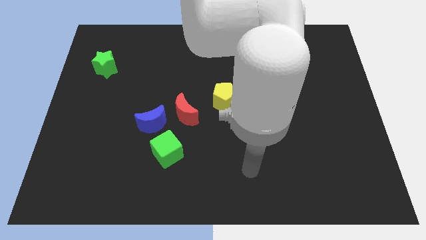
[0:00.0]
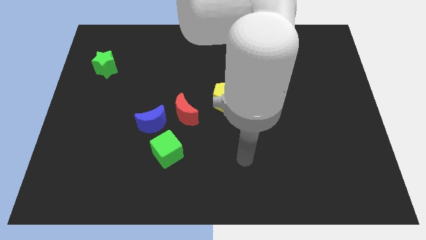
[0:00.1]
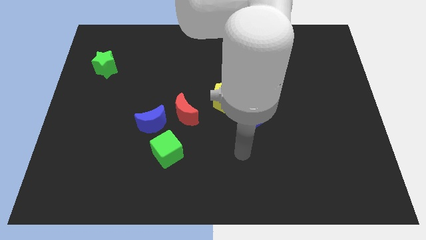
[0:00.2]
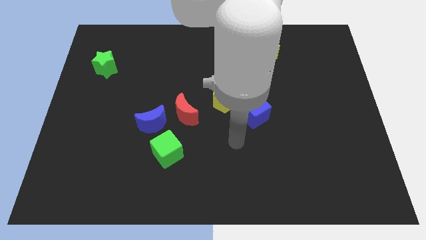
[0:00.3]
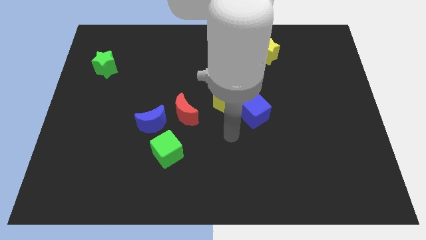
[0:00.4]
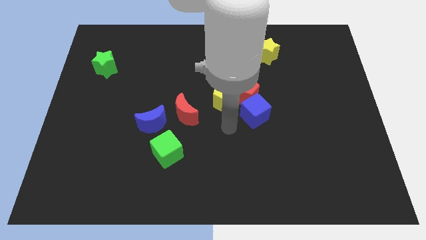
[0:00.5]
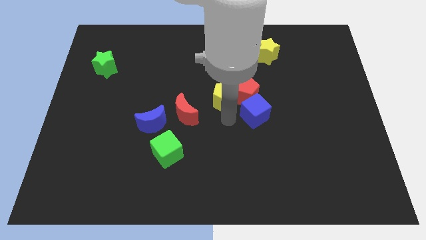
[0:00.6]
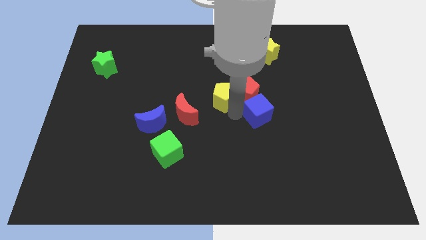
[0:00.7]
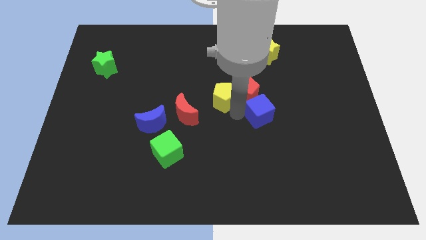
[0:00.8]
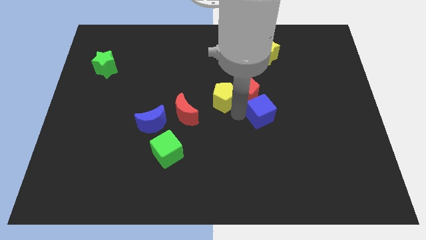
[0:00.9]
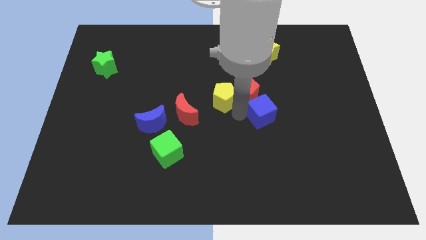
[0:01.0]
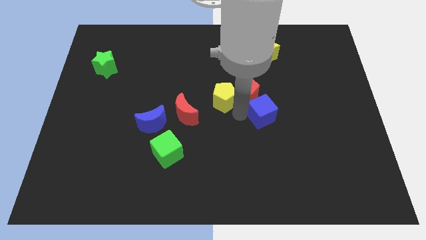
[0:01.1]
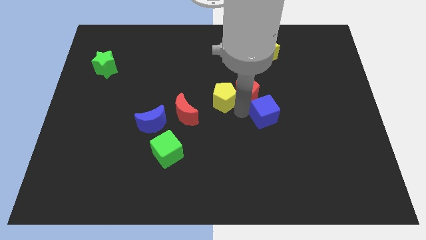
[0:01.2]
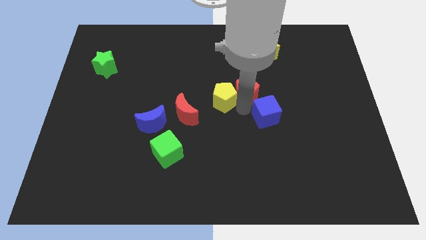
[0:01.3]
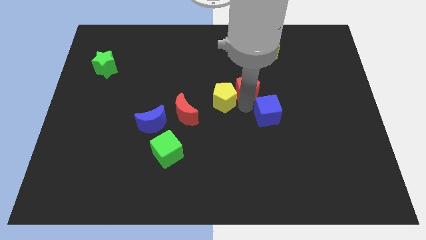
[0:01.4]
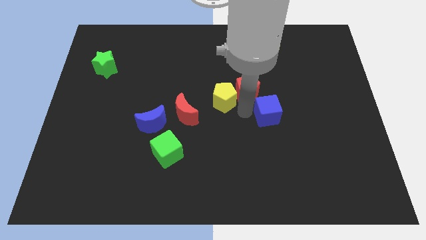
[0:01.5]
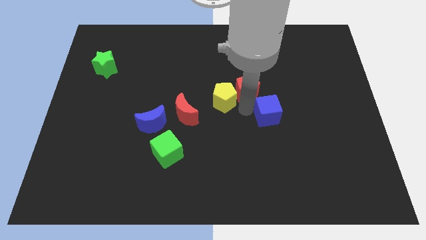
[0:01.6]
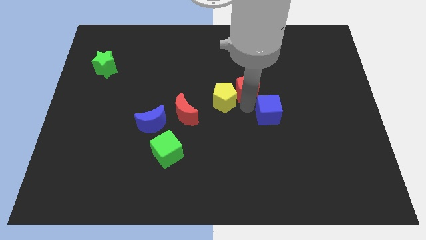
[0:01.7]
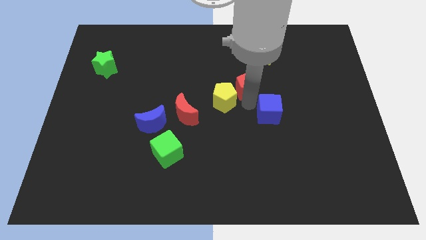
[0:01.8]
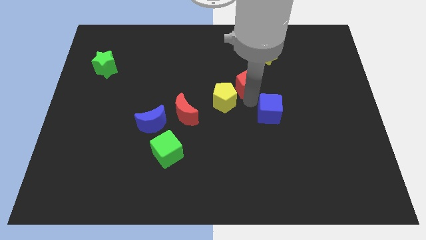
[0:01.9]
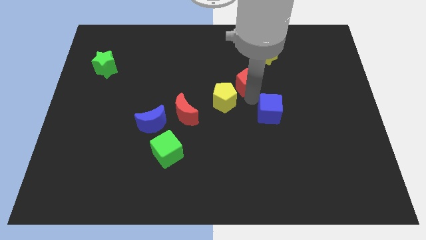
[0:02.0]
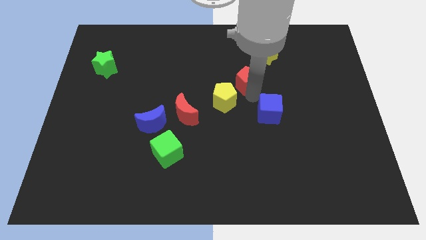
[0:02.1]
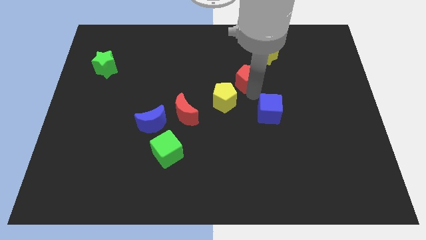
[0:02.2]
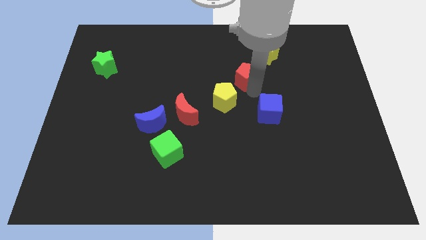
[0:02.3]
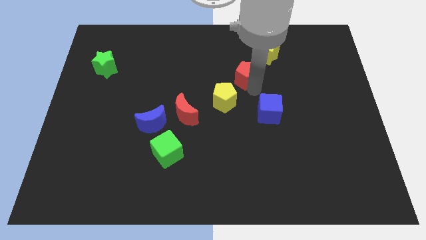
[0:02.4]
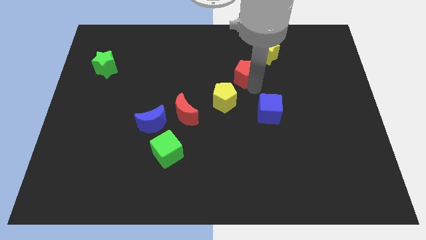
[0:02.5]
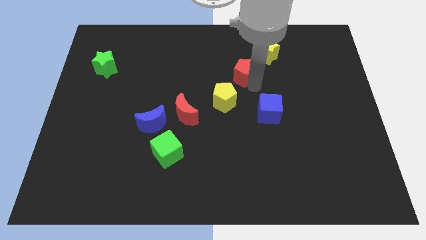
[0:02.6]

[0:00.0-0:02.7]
pull the red pentagon apart from the yellow pentagon and blue cube

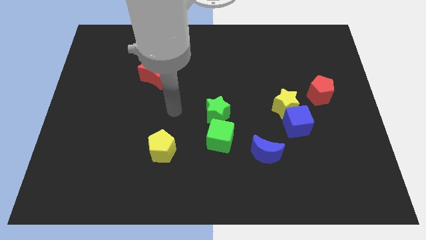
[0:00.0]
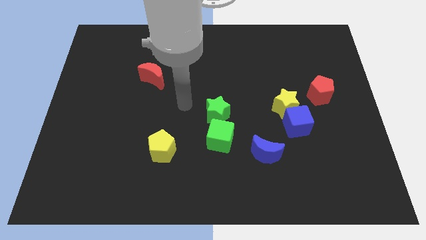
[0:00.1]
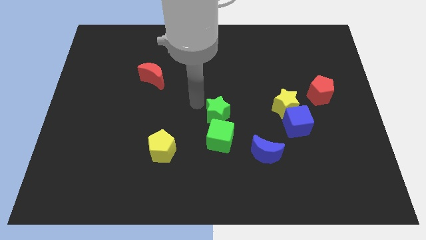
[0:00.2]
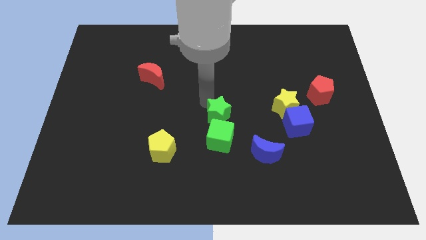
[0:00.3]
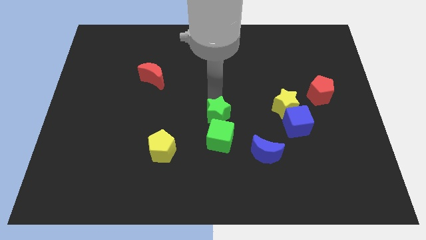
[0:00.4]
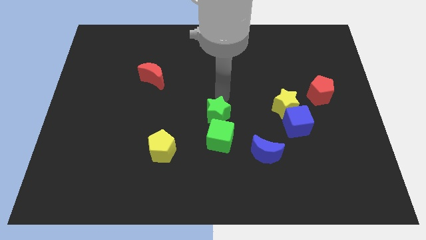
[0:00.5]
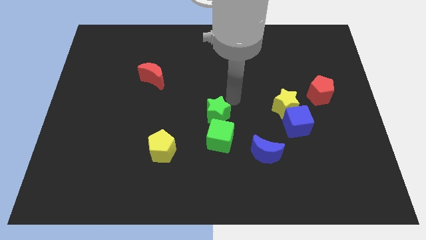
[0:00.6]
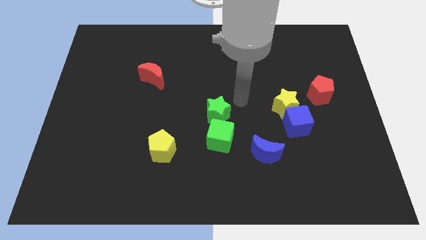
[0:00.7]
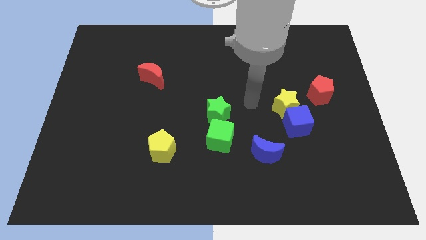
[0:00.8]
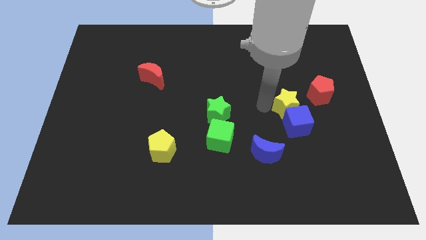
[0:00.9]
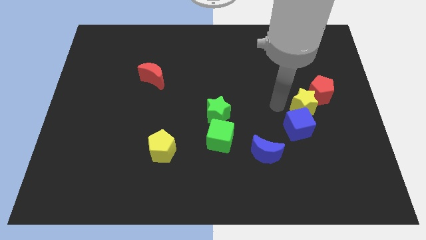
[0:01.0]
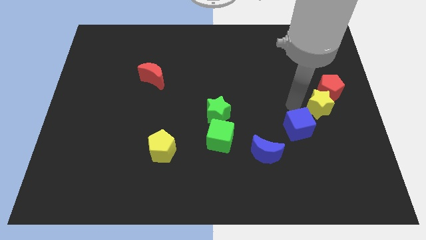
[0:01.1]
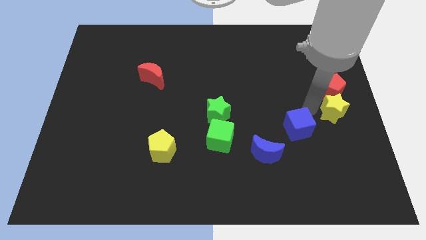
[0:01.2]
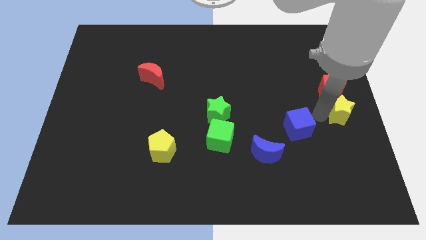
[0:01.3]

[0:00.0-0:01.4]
pull the blue cube apart from the yellow star

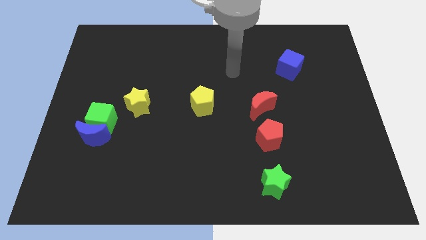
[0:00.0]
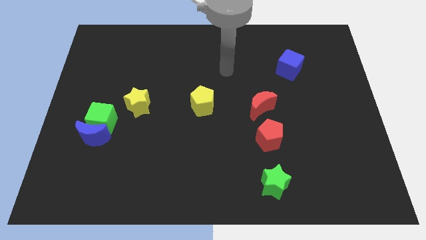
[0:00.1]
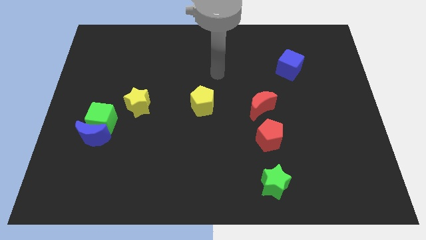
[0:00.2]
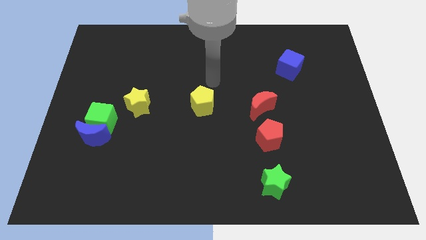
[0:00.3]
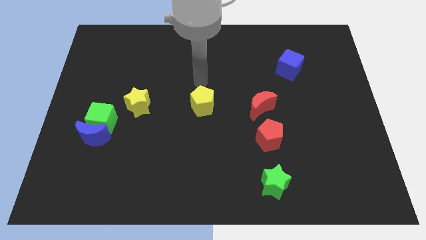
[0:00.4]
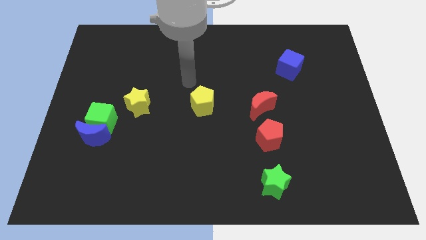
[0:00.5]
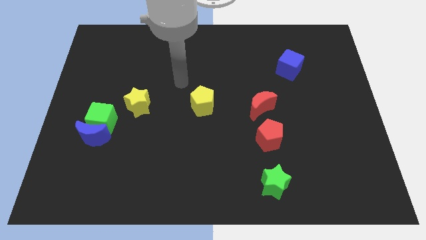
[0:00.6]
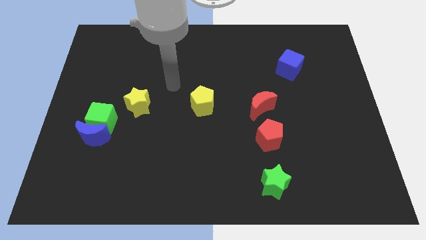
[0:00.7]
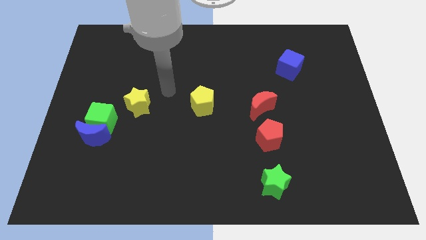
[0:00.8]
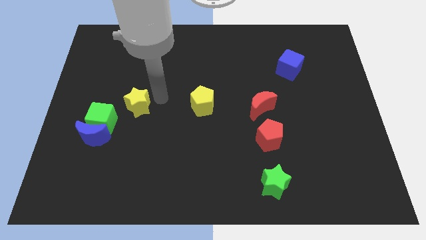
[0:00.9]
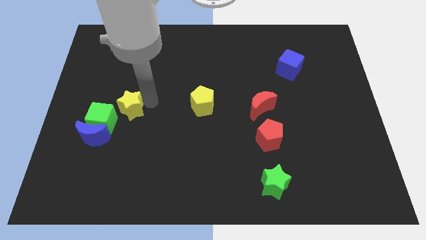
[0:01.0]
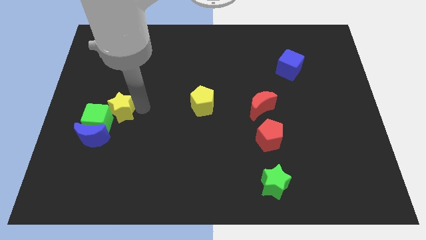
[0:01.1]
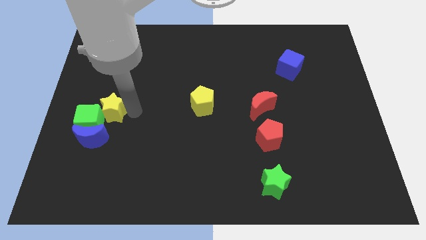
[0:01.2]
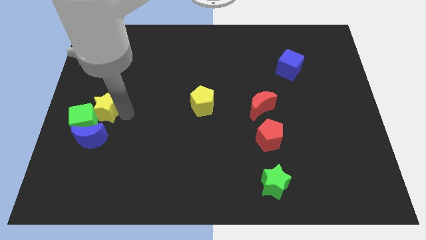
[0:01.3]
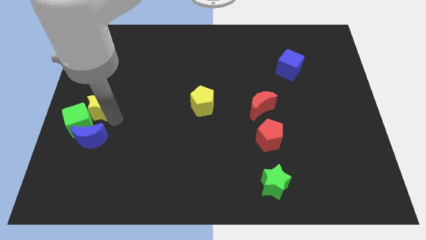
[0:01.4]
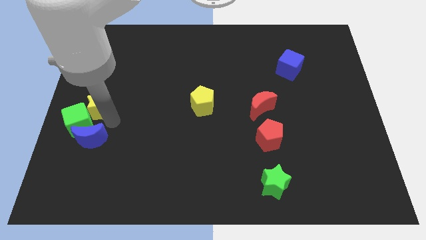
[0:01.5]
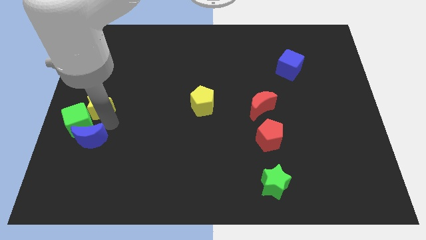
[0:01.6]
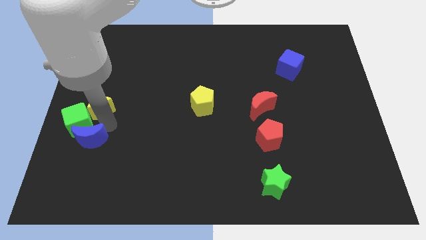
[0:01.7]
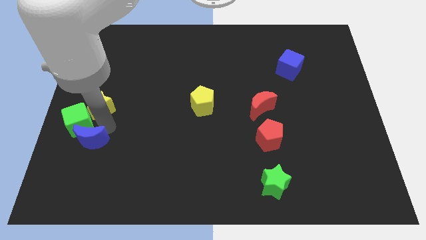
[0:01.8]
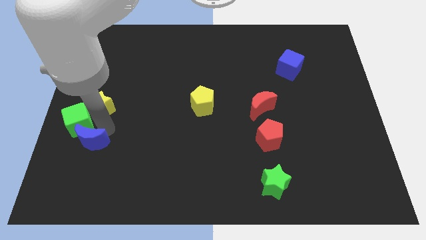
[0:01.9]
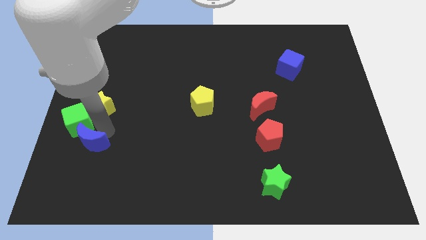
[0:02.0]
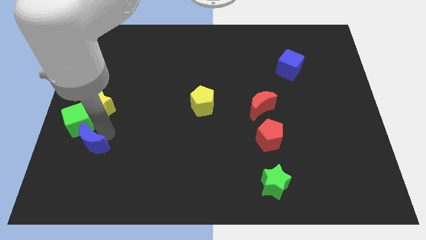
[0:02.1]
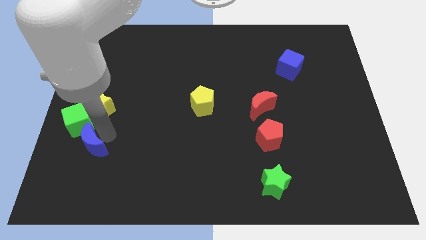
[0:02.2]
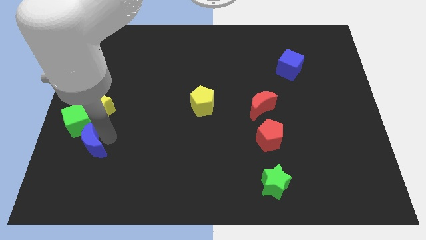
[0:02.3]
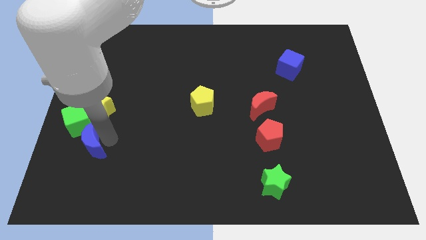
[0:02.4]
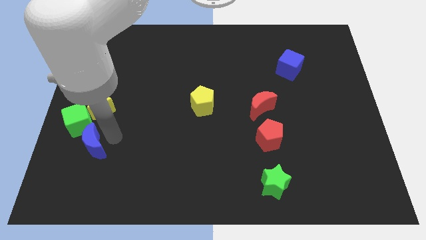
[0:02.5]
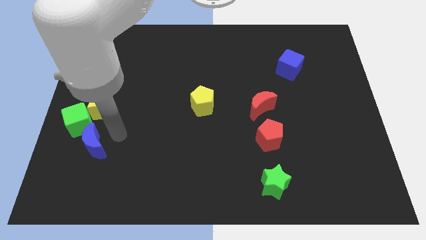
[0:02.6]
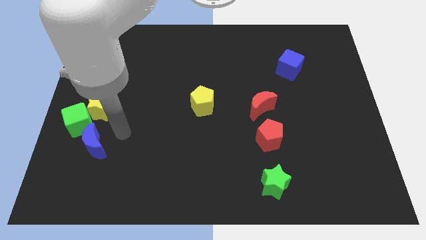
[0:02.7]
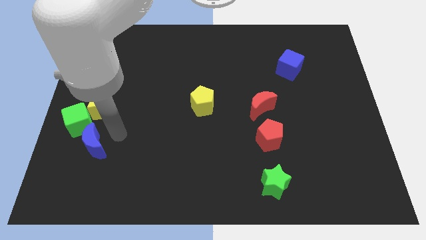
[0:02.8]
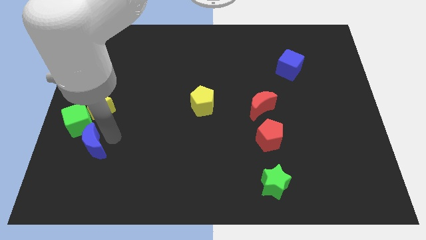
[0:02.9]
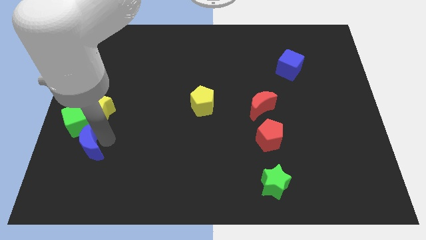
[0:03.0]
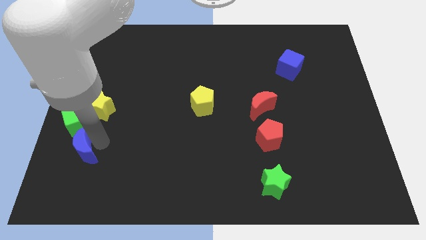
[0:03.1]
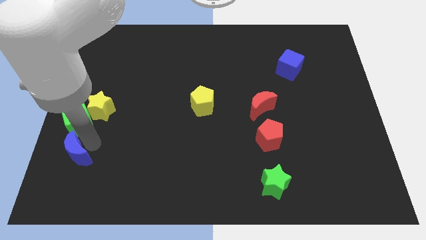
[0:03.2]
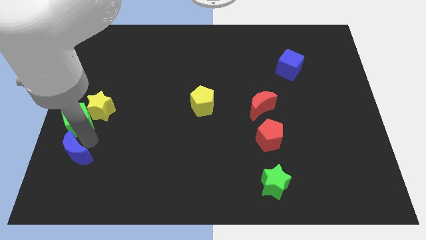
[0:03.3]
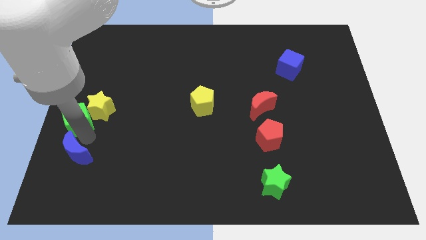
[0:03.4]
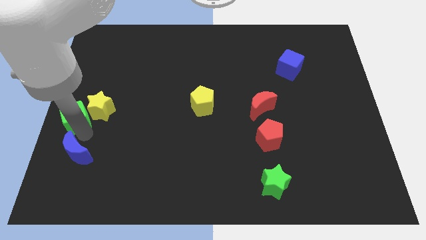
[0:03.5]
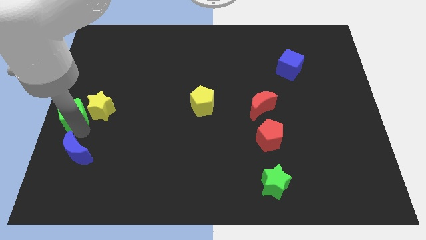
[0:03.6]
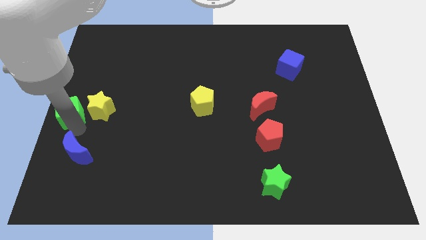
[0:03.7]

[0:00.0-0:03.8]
move the blue moon away from the green cube

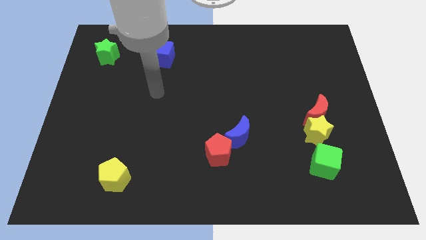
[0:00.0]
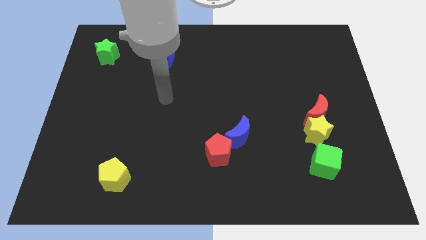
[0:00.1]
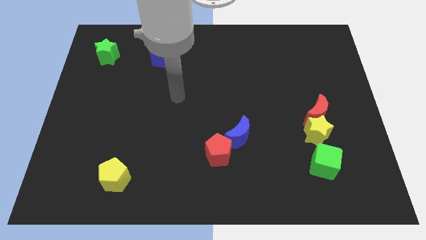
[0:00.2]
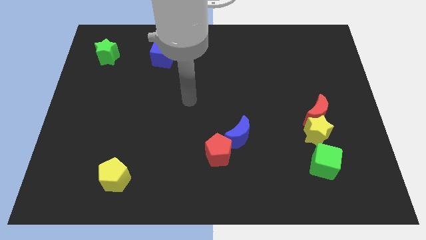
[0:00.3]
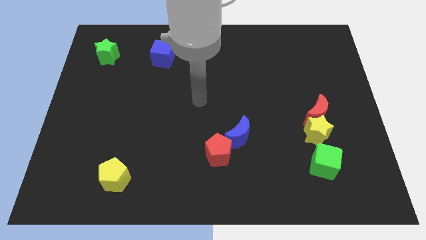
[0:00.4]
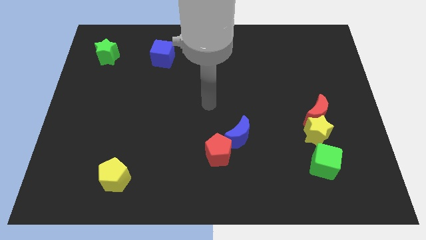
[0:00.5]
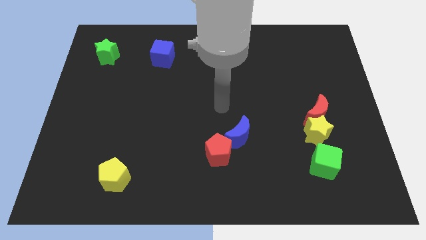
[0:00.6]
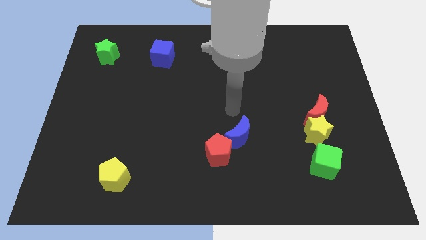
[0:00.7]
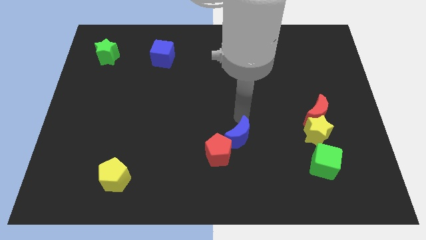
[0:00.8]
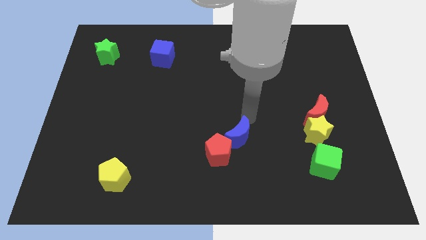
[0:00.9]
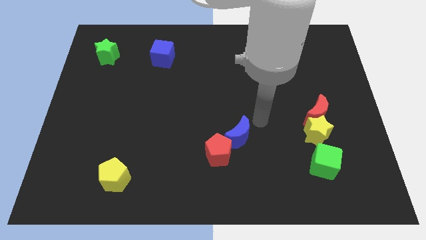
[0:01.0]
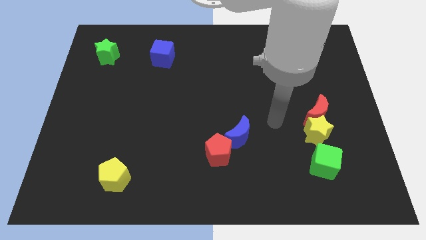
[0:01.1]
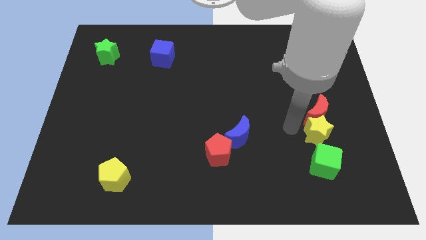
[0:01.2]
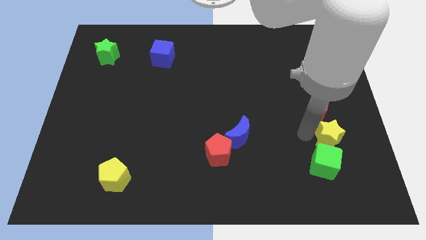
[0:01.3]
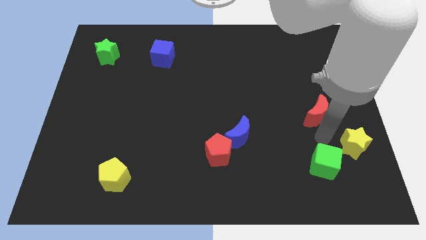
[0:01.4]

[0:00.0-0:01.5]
separate the red moon from the yellow star

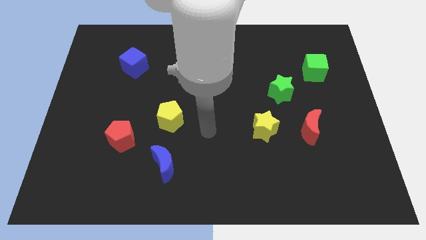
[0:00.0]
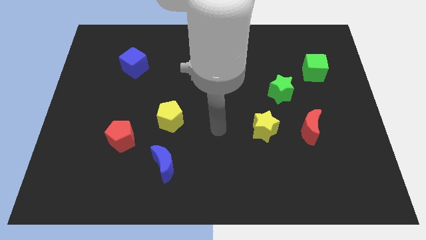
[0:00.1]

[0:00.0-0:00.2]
pull the red moon apart from the yellow star
